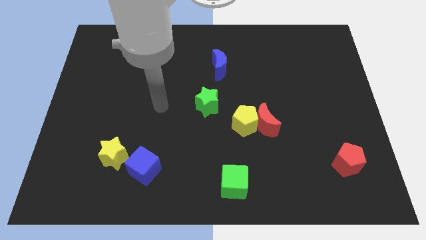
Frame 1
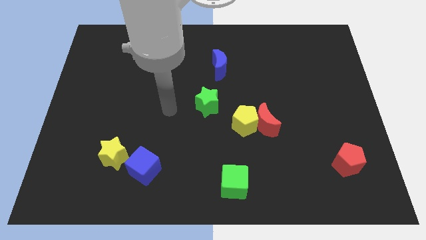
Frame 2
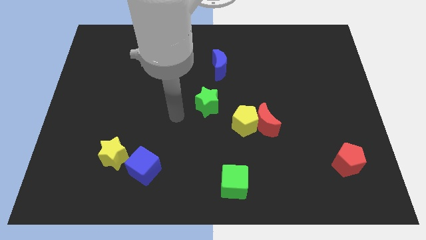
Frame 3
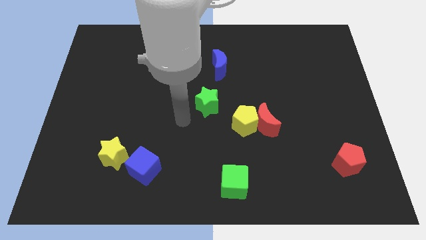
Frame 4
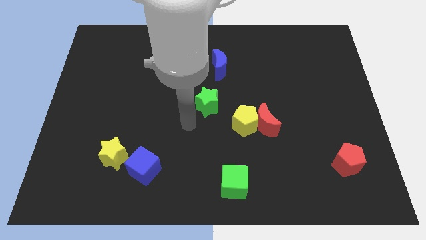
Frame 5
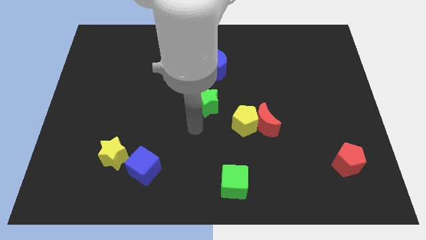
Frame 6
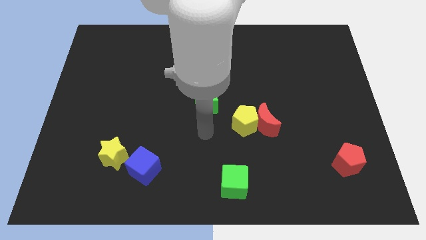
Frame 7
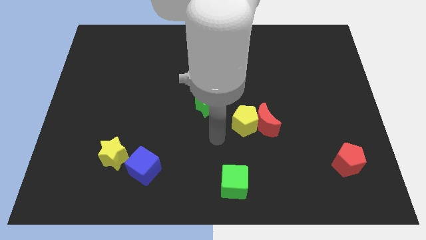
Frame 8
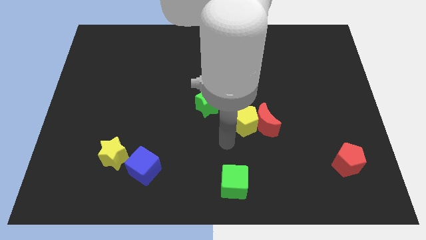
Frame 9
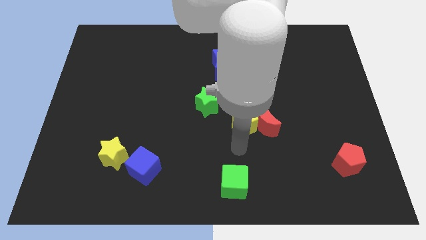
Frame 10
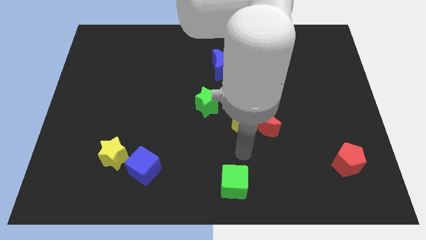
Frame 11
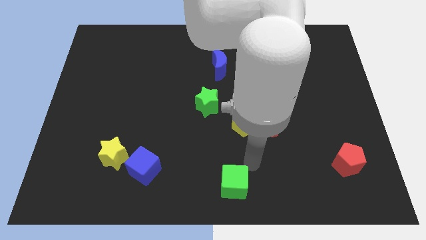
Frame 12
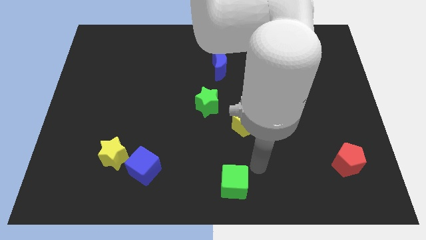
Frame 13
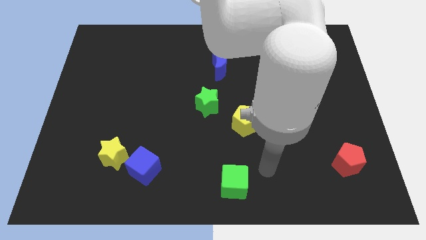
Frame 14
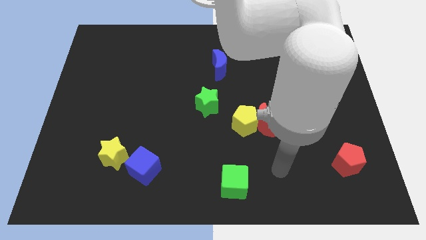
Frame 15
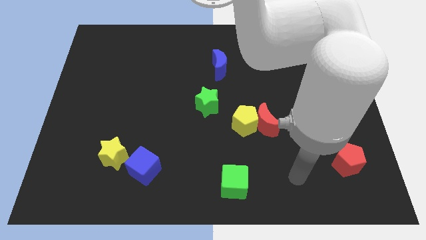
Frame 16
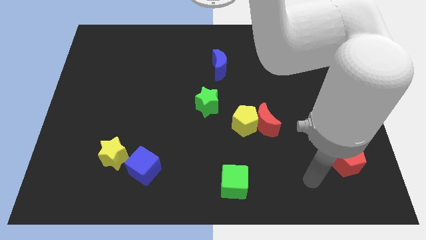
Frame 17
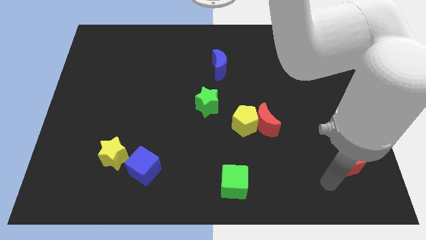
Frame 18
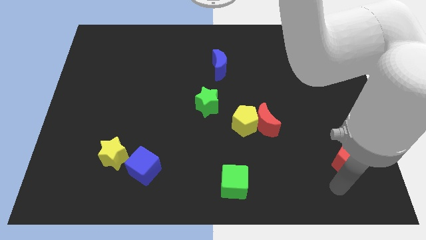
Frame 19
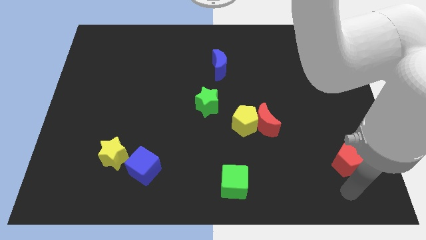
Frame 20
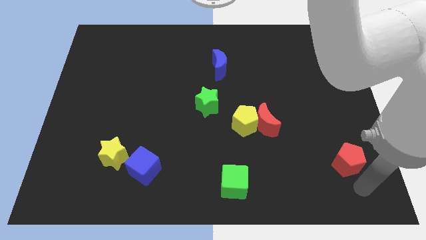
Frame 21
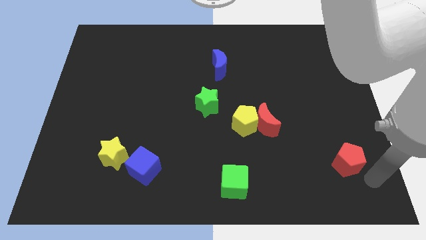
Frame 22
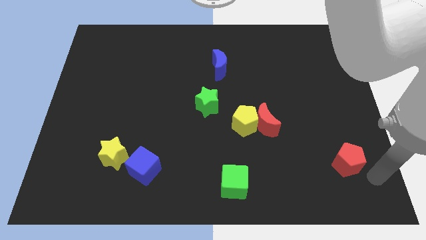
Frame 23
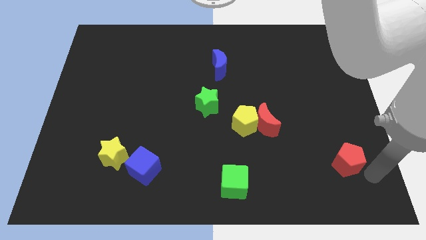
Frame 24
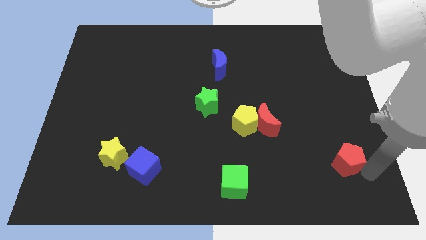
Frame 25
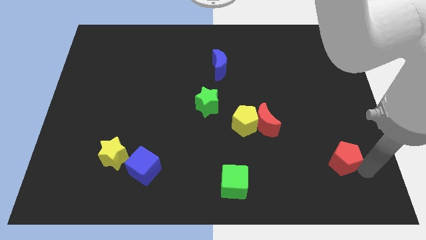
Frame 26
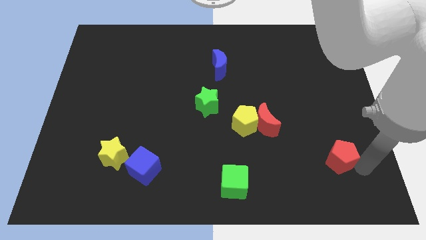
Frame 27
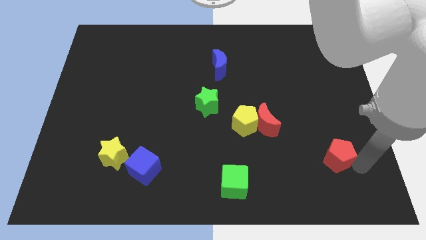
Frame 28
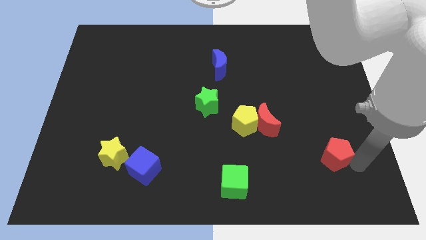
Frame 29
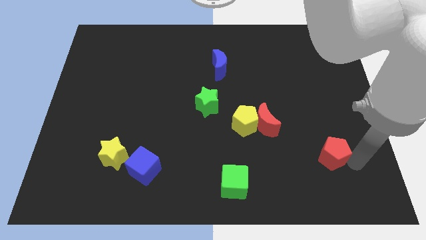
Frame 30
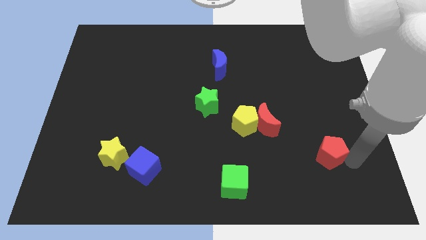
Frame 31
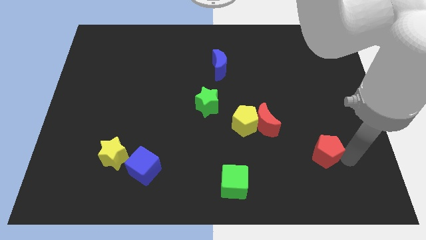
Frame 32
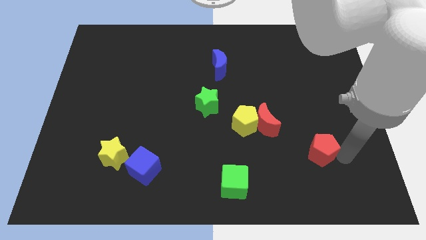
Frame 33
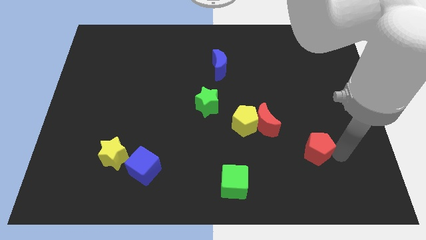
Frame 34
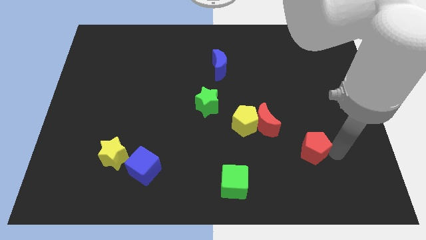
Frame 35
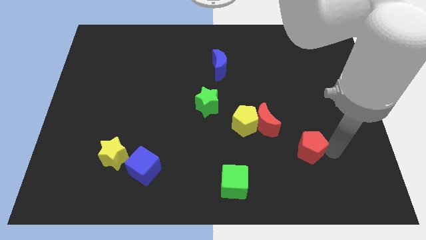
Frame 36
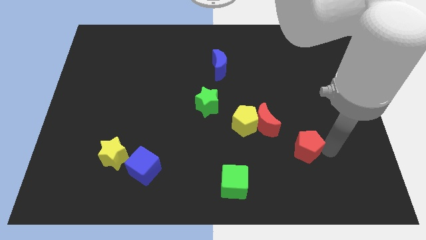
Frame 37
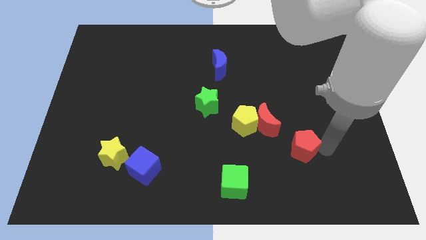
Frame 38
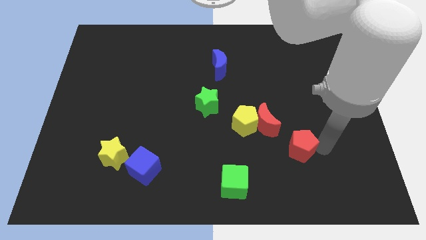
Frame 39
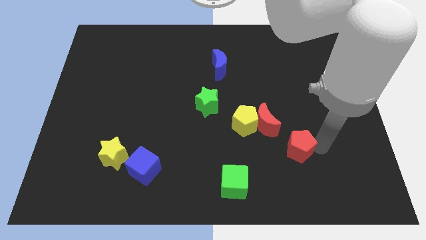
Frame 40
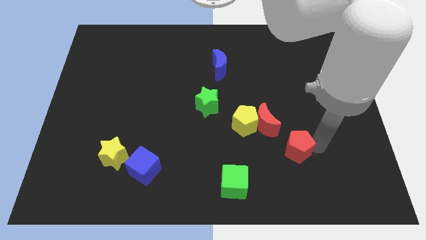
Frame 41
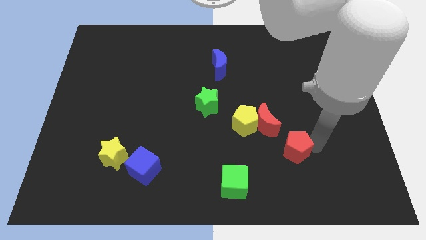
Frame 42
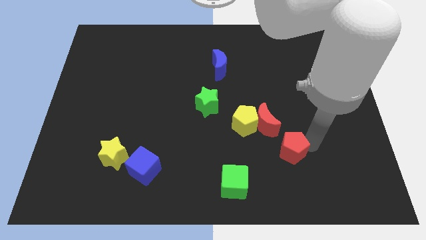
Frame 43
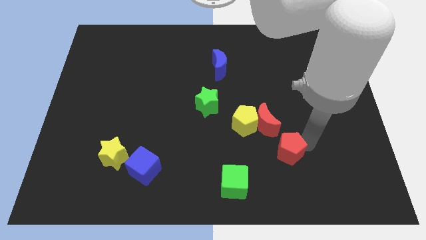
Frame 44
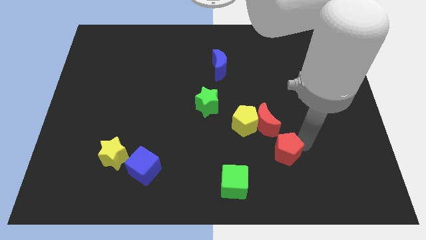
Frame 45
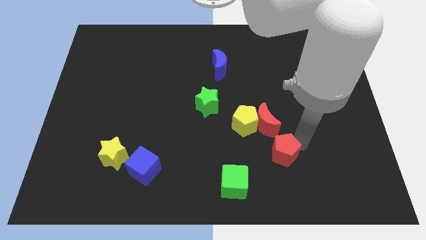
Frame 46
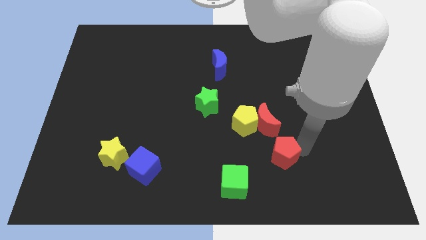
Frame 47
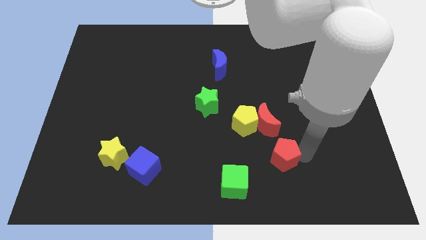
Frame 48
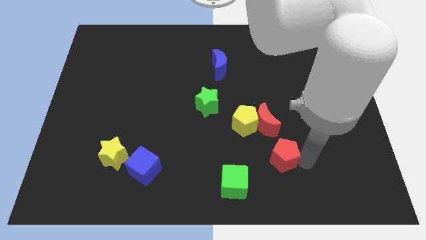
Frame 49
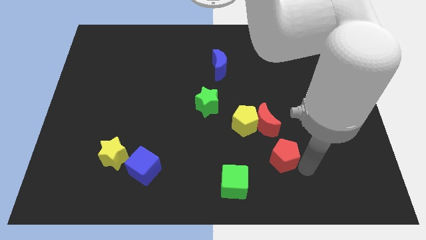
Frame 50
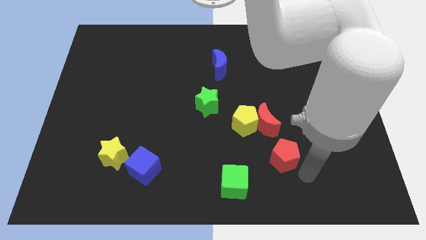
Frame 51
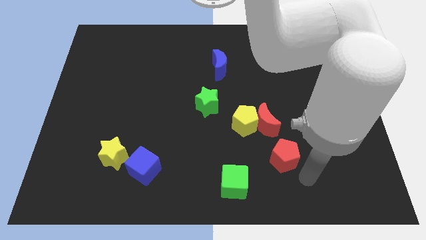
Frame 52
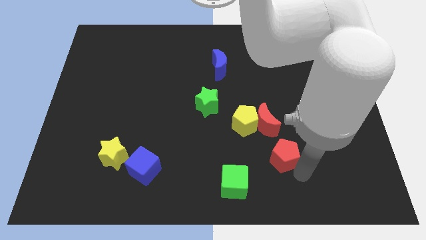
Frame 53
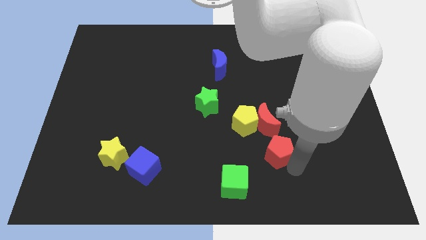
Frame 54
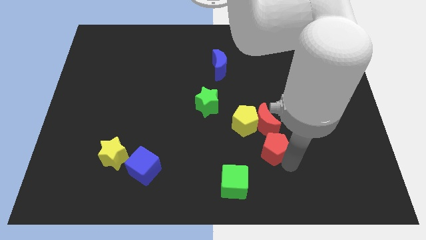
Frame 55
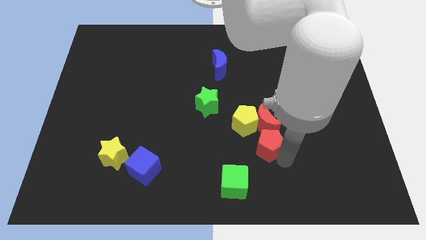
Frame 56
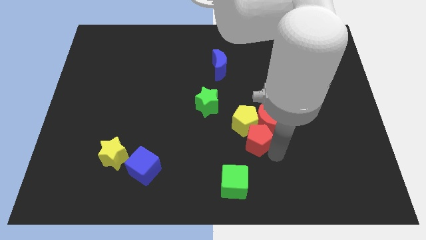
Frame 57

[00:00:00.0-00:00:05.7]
slide the red pentagon close to the yellow pentagon

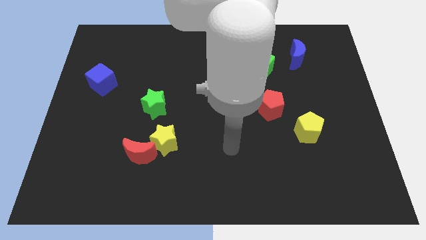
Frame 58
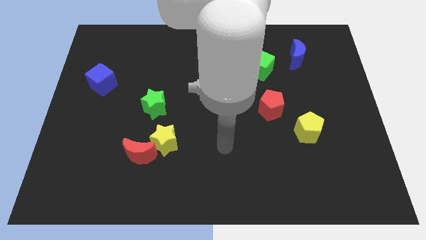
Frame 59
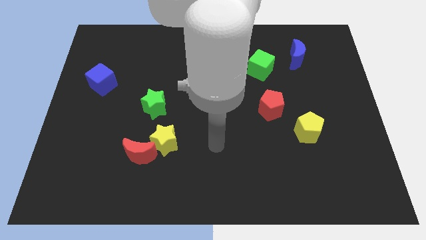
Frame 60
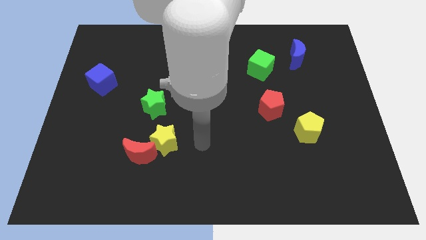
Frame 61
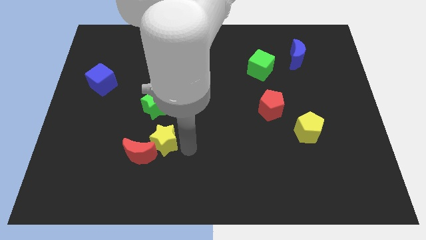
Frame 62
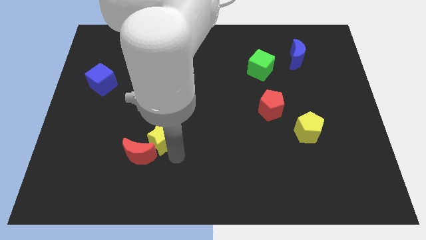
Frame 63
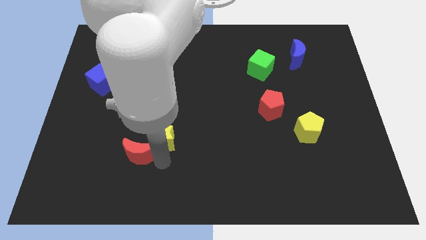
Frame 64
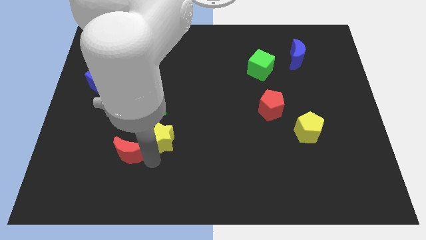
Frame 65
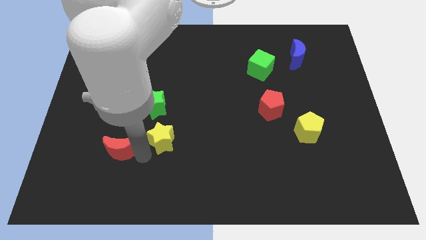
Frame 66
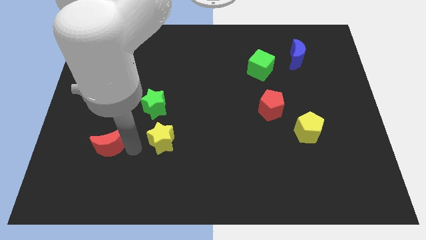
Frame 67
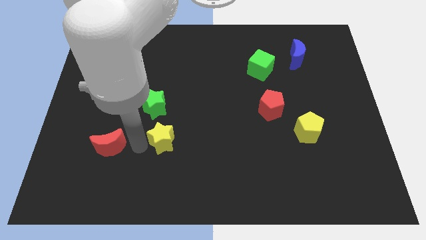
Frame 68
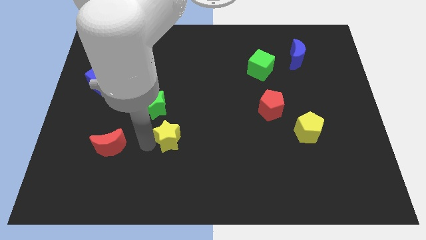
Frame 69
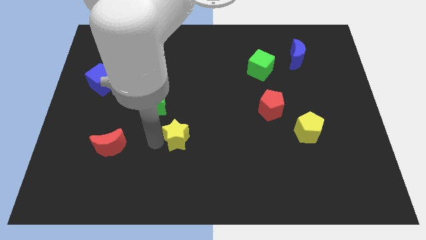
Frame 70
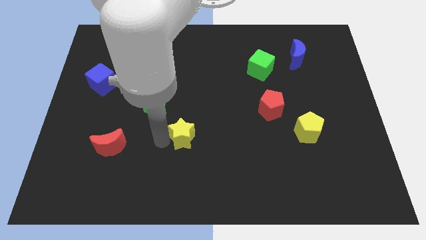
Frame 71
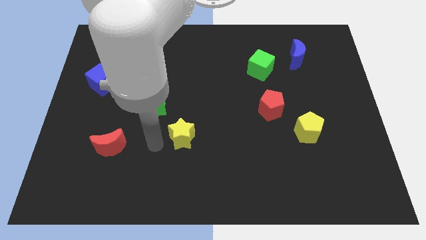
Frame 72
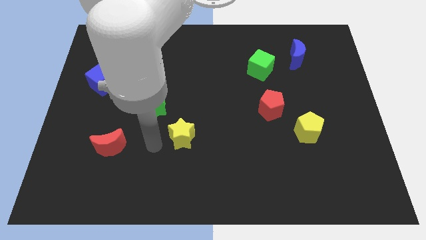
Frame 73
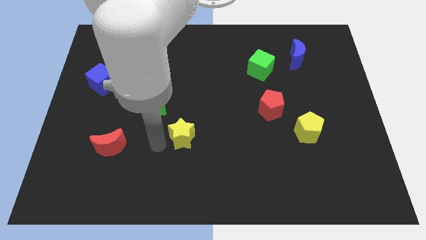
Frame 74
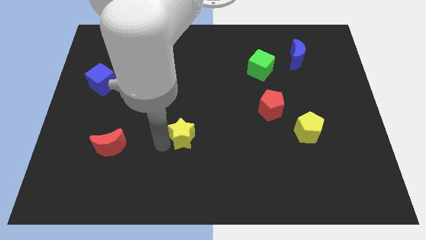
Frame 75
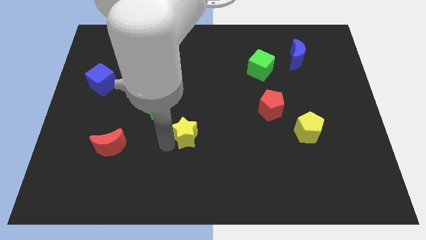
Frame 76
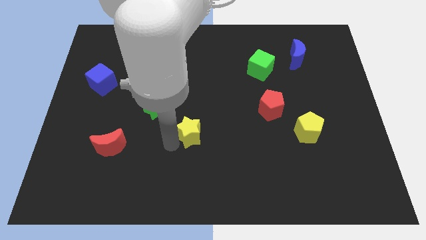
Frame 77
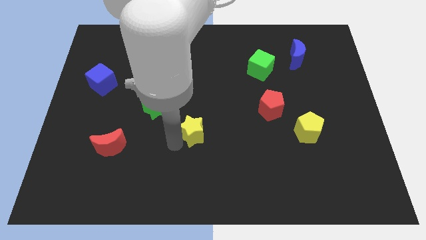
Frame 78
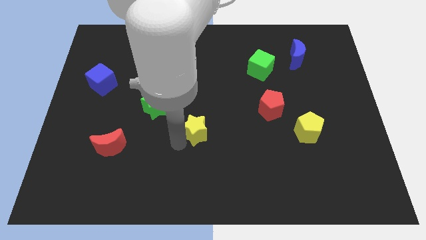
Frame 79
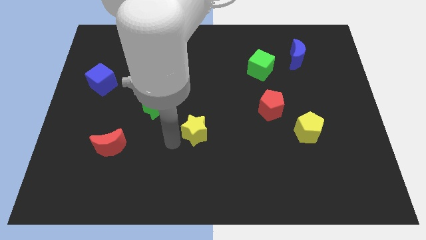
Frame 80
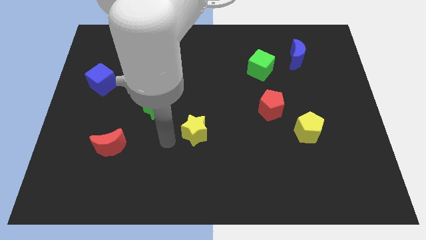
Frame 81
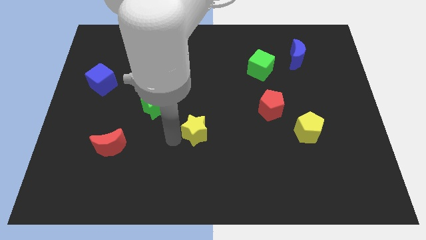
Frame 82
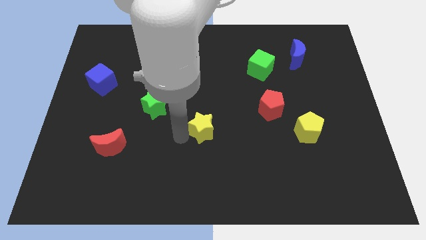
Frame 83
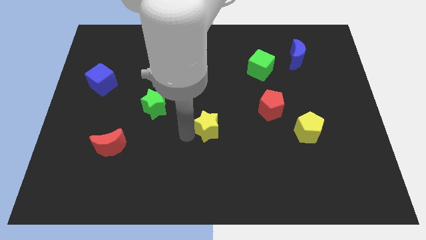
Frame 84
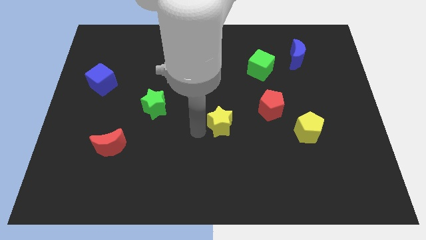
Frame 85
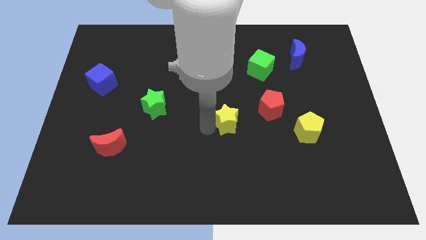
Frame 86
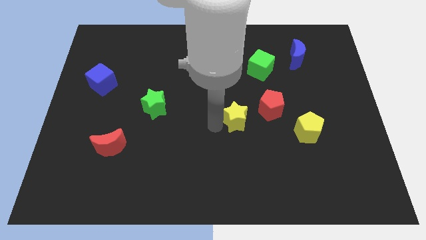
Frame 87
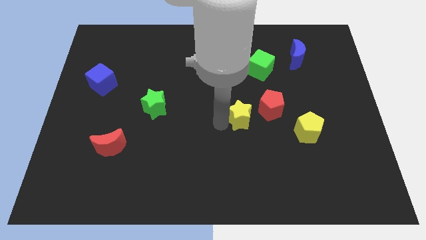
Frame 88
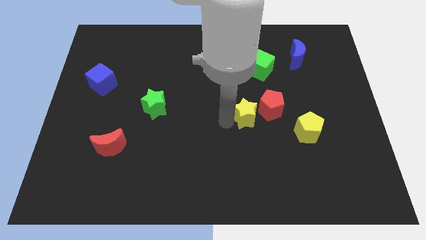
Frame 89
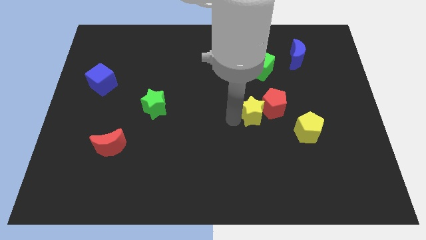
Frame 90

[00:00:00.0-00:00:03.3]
push the yellow star next to the red pentagon
